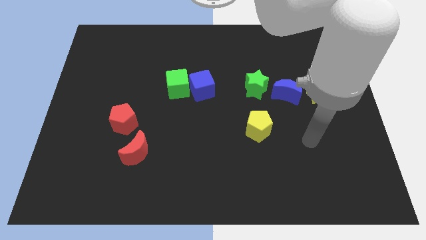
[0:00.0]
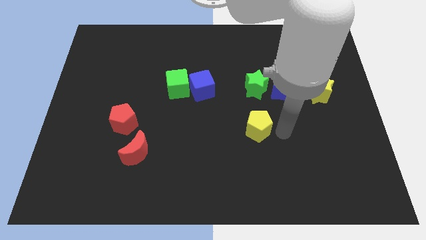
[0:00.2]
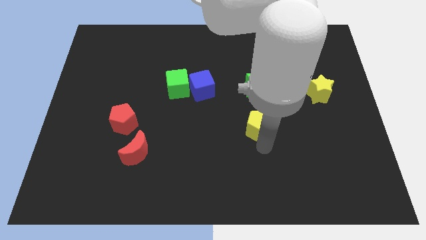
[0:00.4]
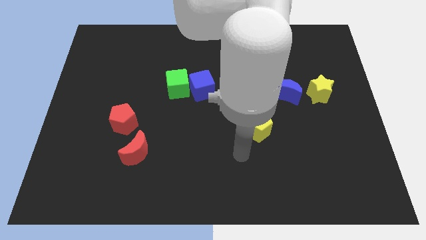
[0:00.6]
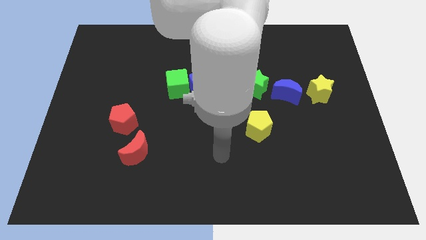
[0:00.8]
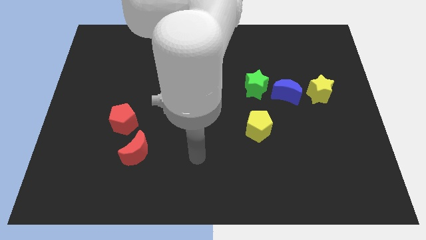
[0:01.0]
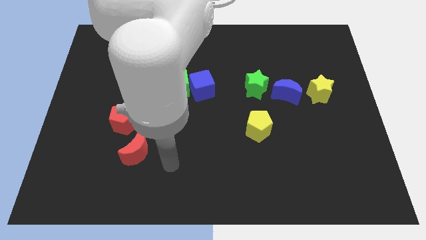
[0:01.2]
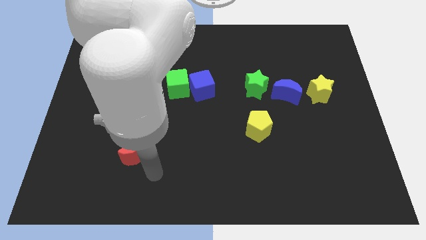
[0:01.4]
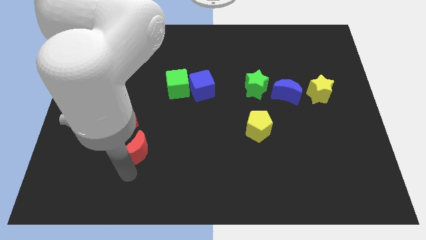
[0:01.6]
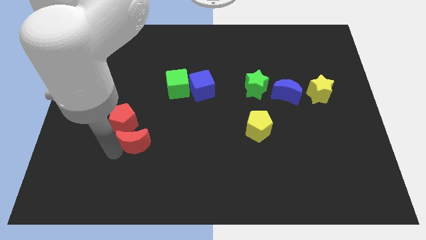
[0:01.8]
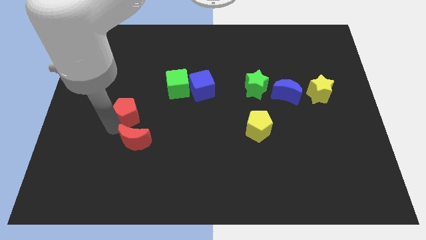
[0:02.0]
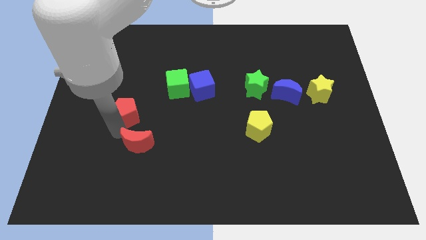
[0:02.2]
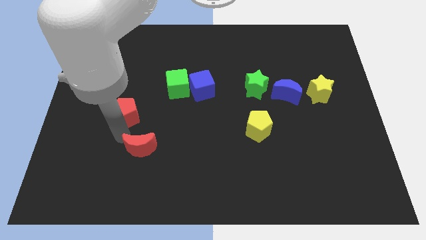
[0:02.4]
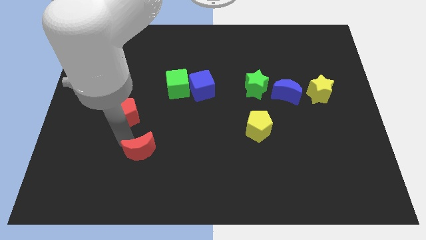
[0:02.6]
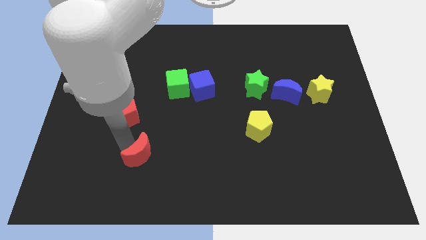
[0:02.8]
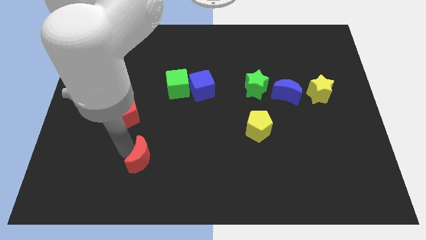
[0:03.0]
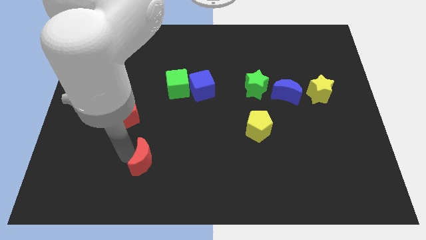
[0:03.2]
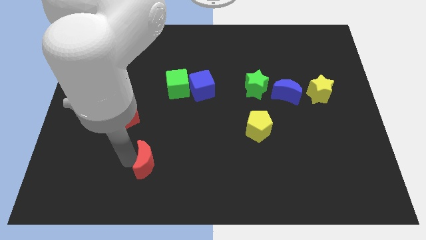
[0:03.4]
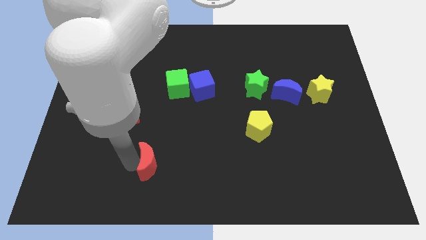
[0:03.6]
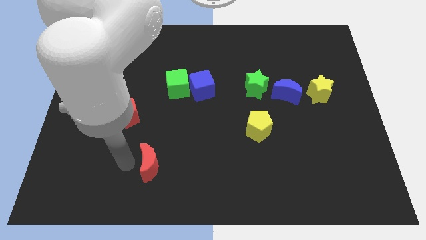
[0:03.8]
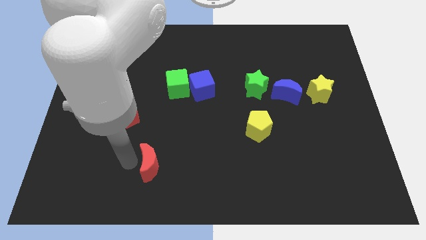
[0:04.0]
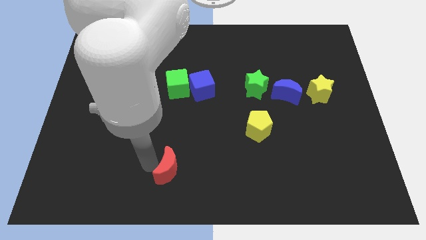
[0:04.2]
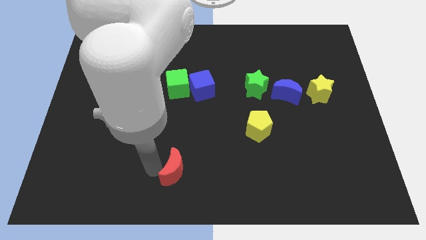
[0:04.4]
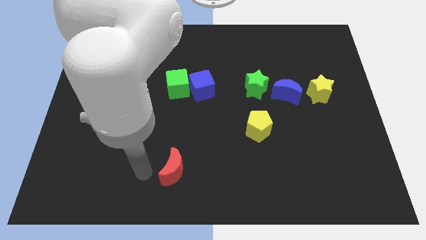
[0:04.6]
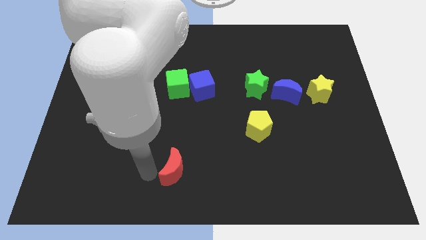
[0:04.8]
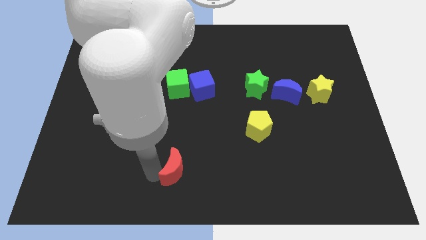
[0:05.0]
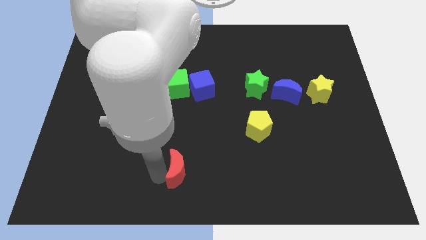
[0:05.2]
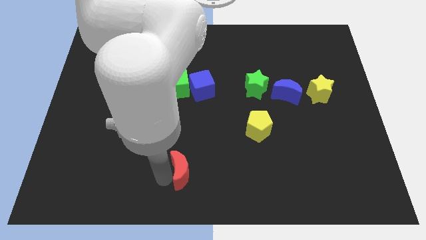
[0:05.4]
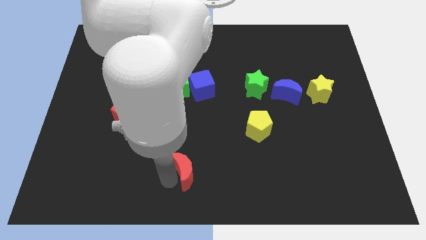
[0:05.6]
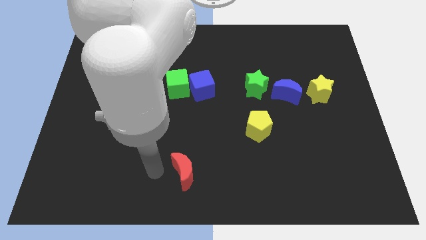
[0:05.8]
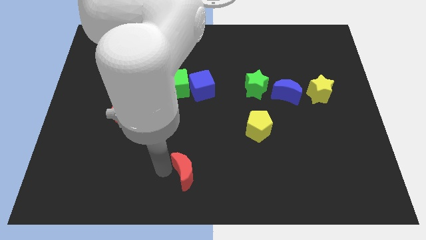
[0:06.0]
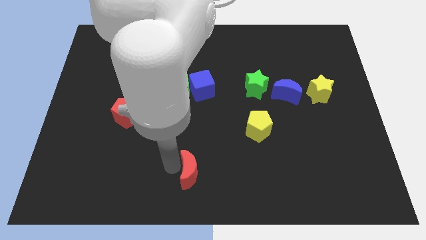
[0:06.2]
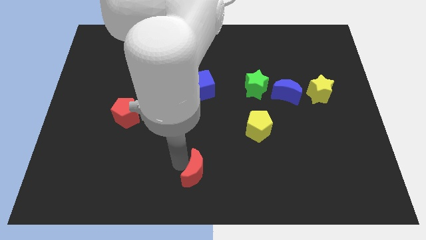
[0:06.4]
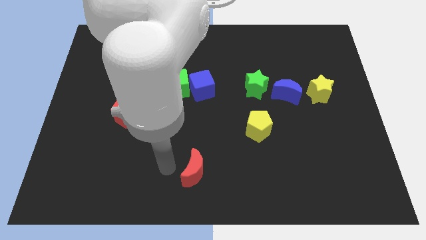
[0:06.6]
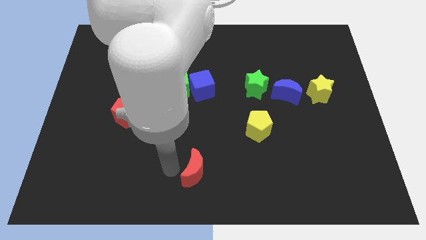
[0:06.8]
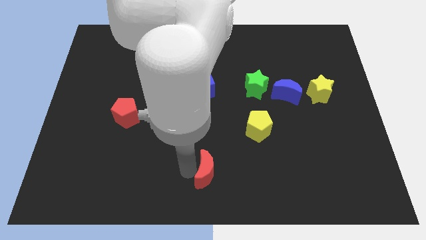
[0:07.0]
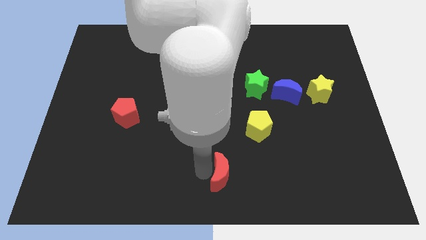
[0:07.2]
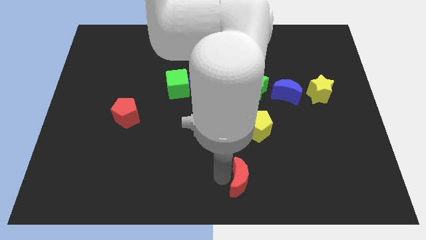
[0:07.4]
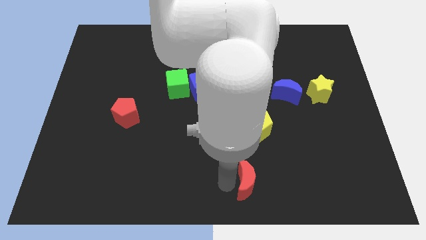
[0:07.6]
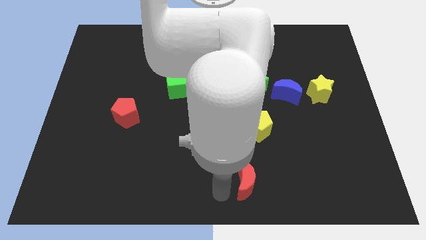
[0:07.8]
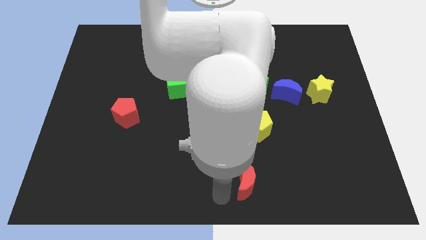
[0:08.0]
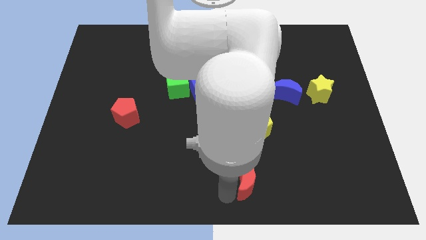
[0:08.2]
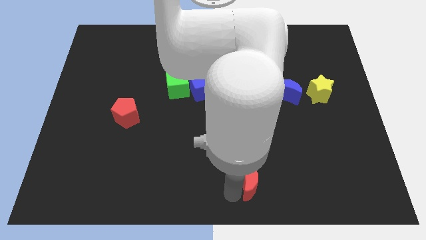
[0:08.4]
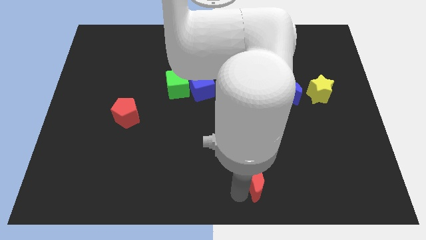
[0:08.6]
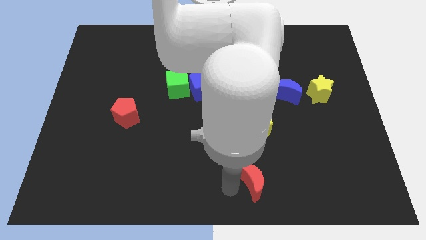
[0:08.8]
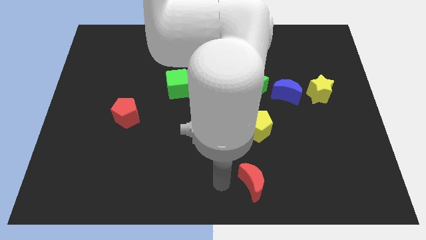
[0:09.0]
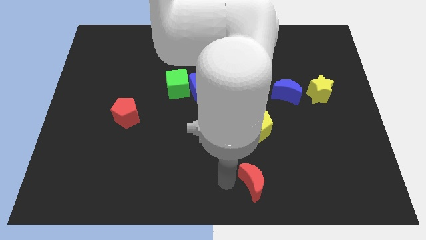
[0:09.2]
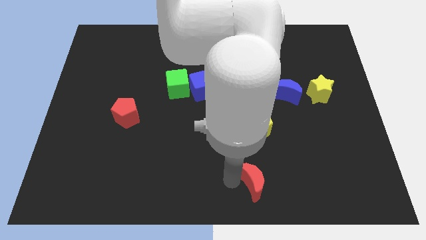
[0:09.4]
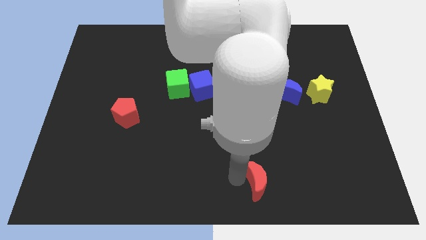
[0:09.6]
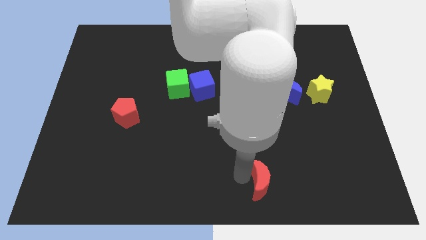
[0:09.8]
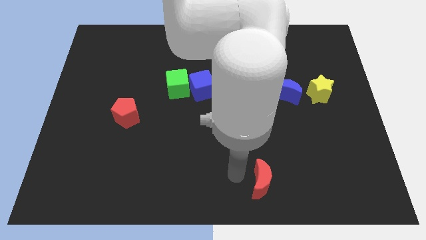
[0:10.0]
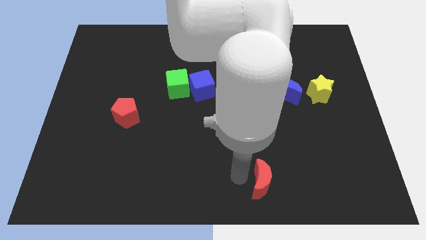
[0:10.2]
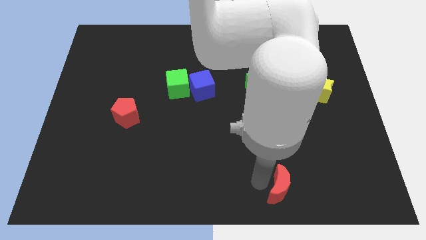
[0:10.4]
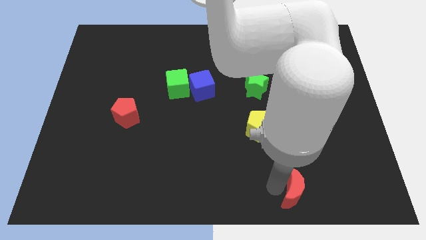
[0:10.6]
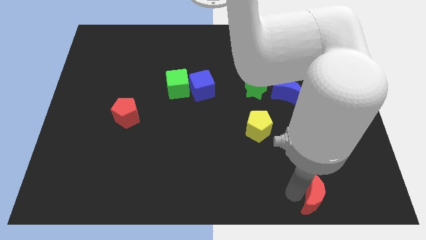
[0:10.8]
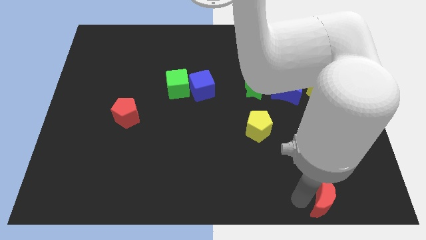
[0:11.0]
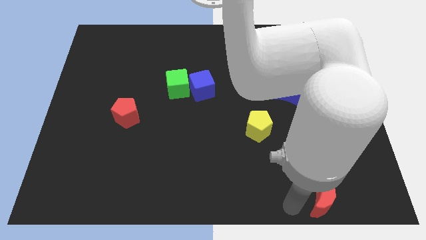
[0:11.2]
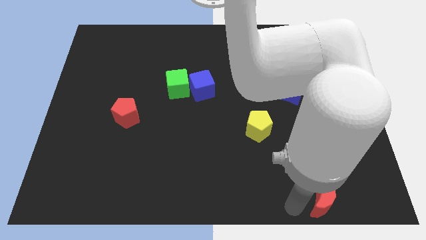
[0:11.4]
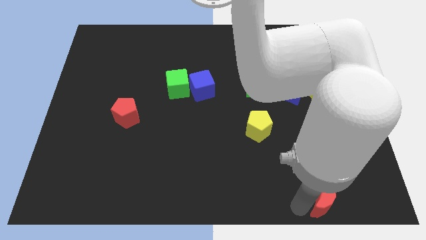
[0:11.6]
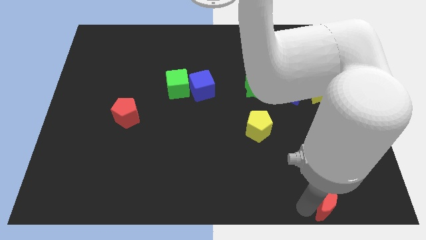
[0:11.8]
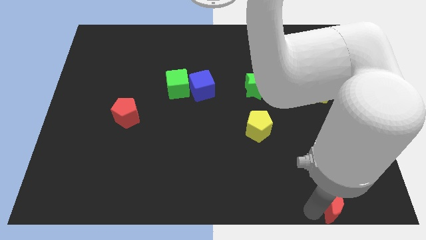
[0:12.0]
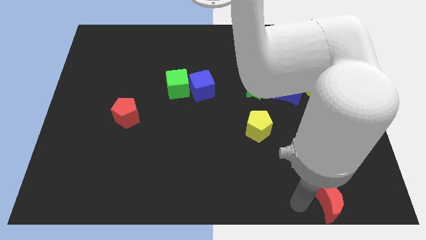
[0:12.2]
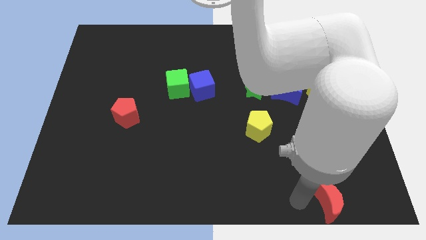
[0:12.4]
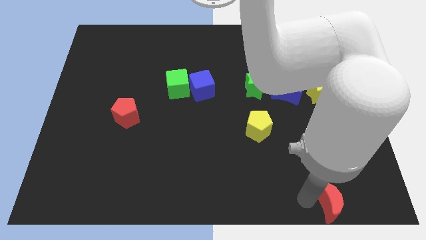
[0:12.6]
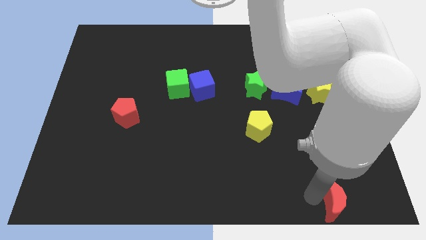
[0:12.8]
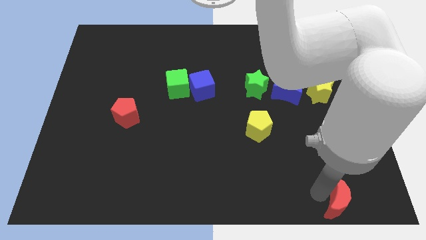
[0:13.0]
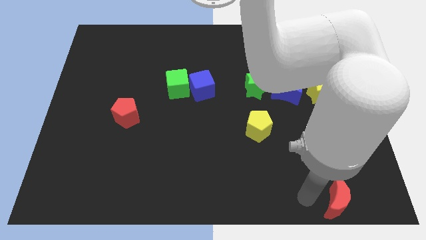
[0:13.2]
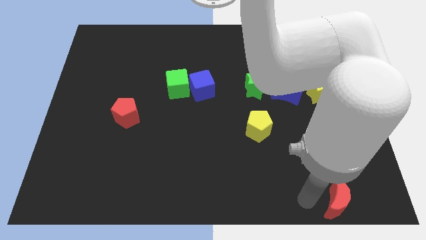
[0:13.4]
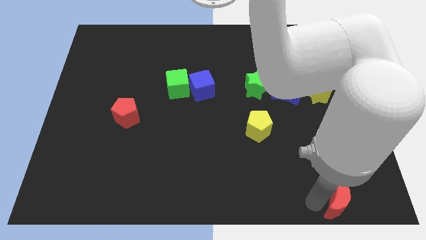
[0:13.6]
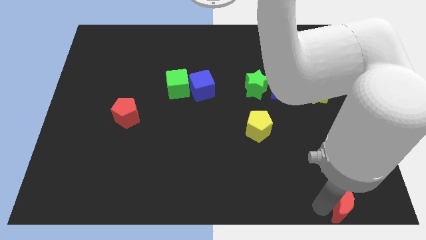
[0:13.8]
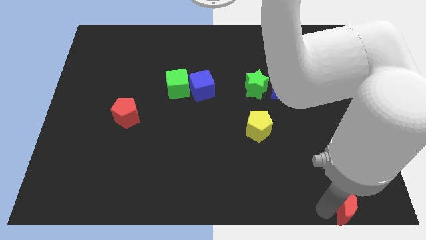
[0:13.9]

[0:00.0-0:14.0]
push the red moon to the lower right corner
